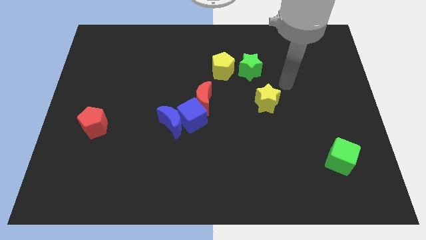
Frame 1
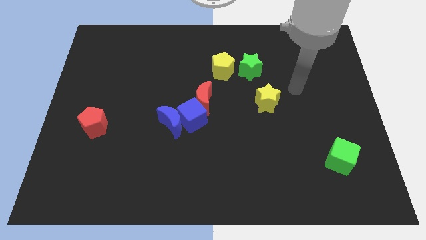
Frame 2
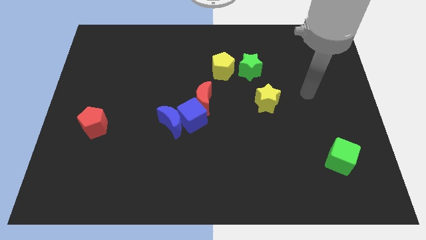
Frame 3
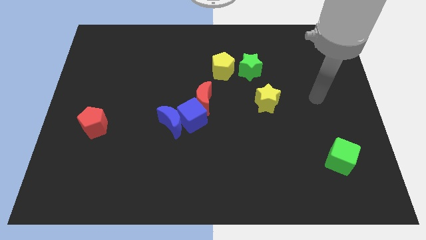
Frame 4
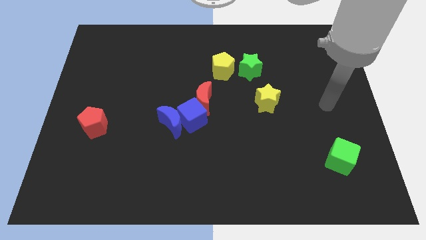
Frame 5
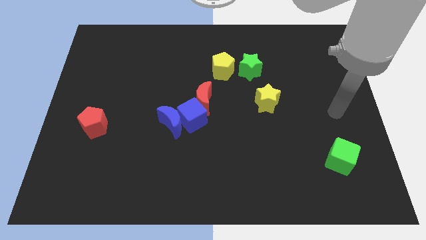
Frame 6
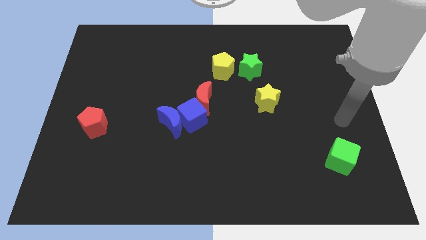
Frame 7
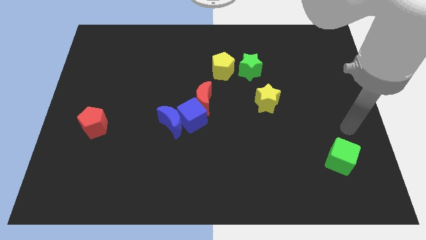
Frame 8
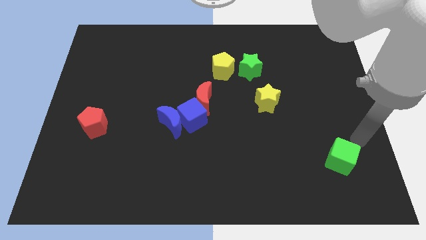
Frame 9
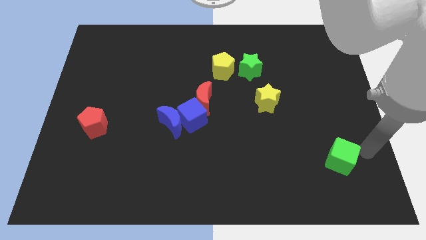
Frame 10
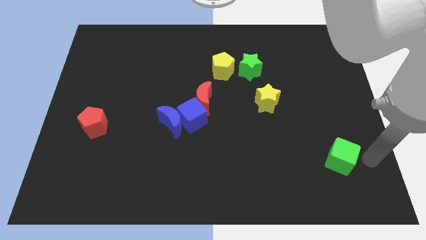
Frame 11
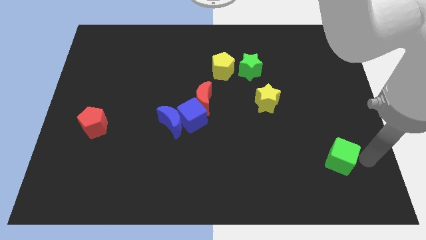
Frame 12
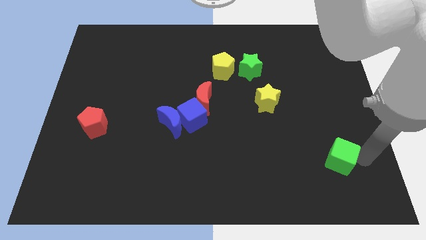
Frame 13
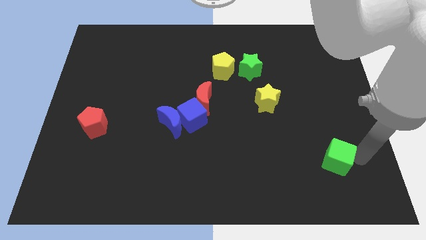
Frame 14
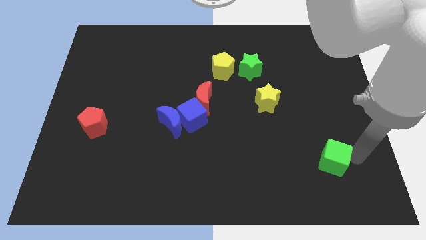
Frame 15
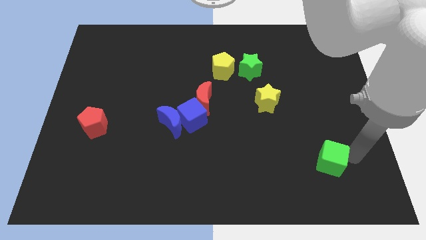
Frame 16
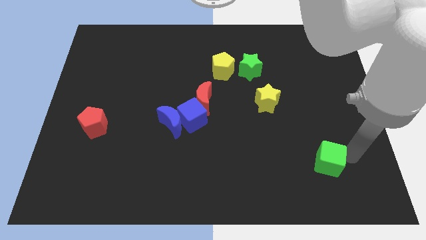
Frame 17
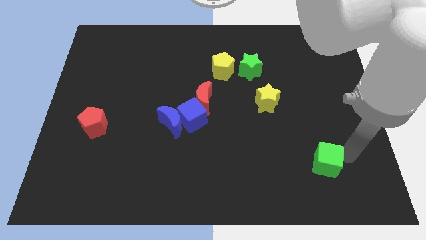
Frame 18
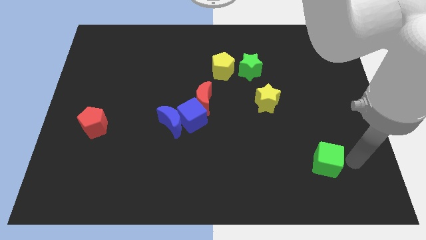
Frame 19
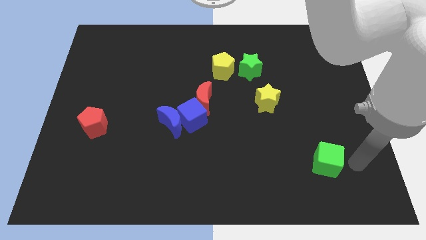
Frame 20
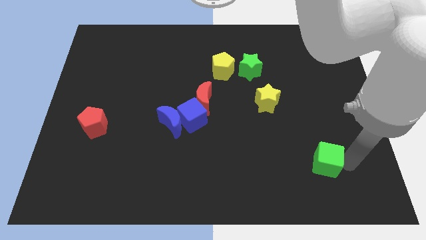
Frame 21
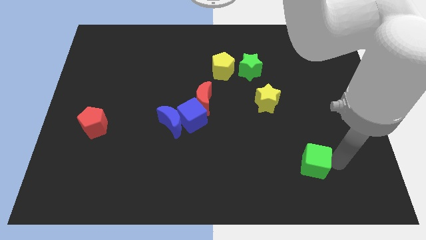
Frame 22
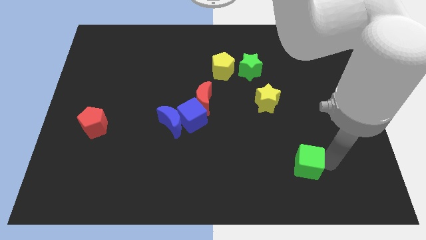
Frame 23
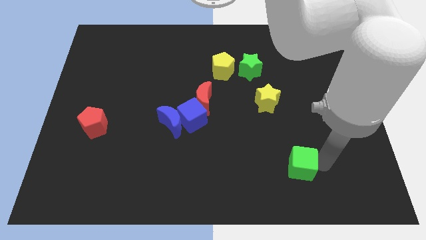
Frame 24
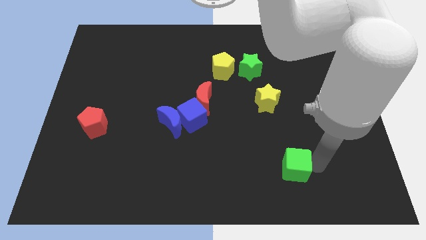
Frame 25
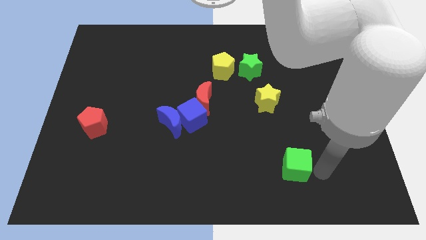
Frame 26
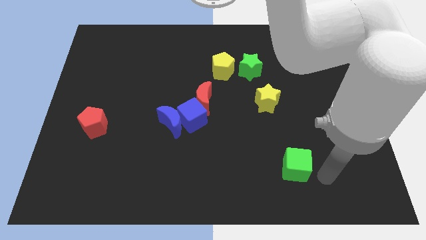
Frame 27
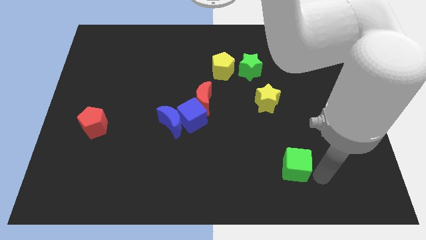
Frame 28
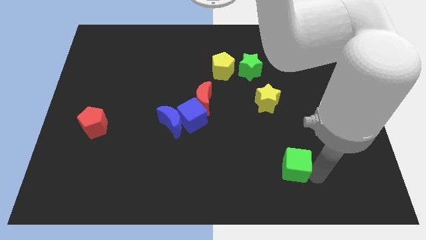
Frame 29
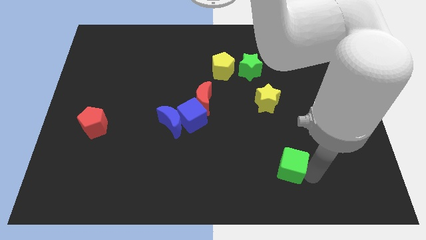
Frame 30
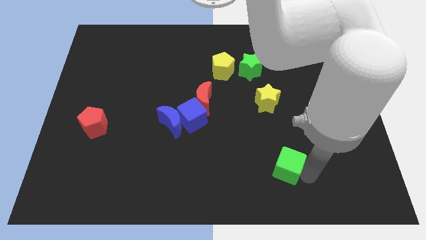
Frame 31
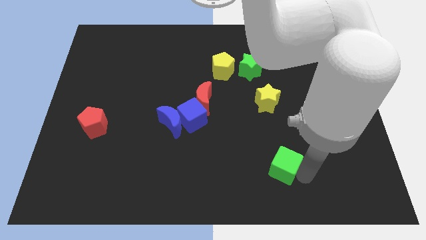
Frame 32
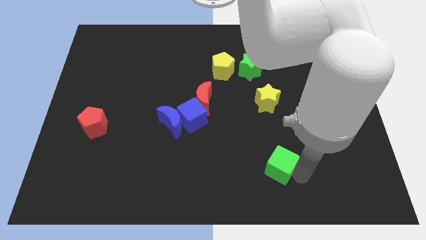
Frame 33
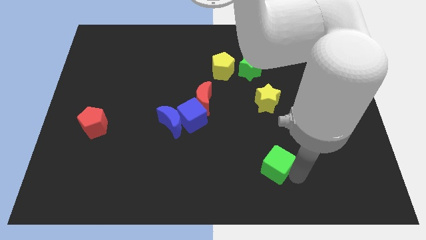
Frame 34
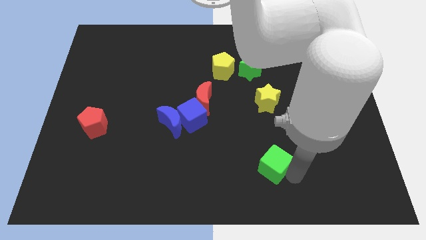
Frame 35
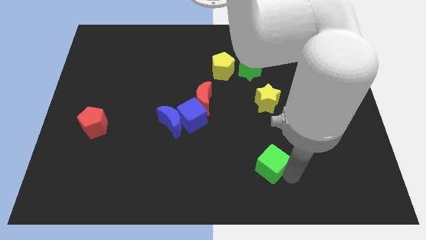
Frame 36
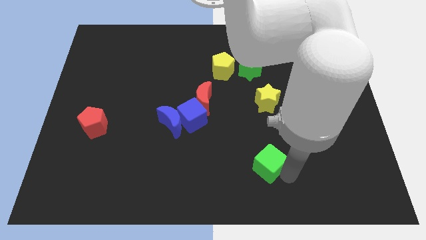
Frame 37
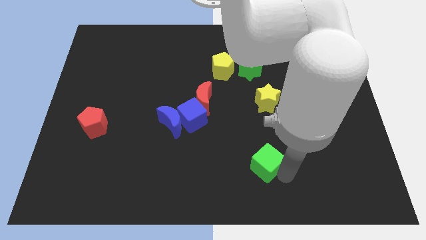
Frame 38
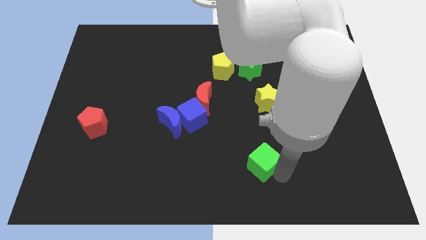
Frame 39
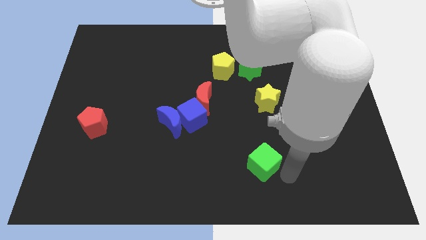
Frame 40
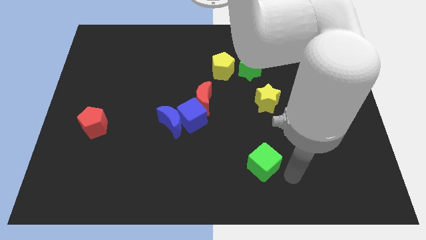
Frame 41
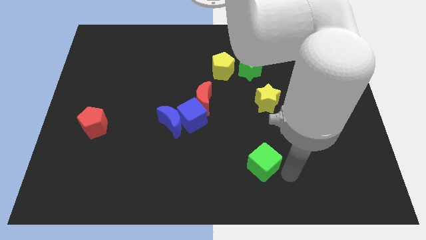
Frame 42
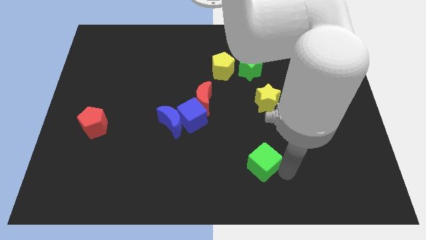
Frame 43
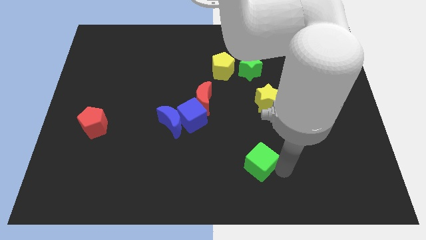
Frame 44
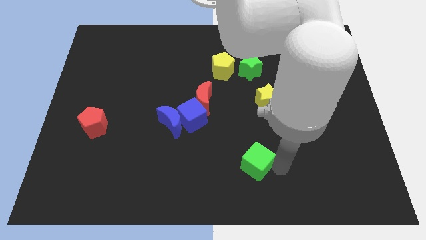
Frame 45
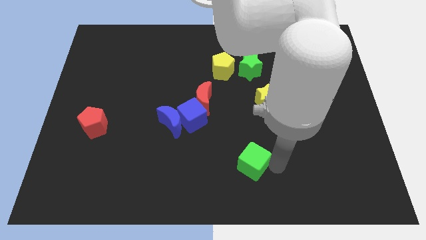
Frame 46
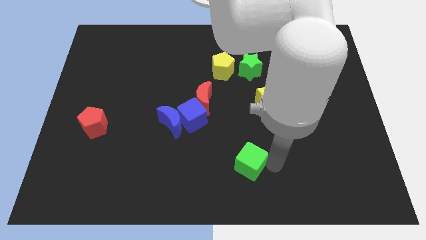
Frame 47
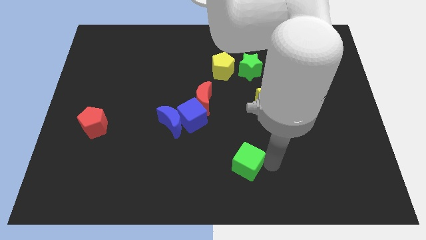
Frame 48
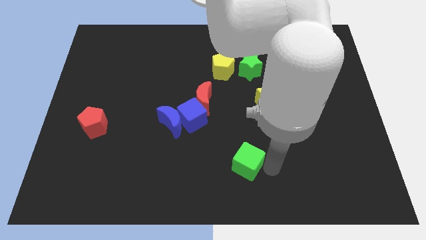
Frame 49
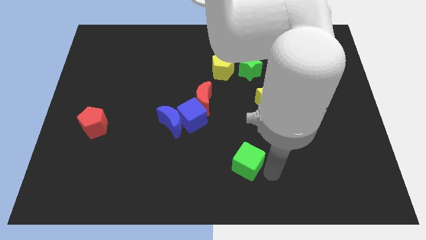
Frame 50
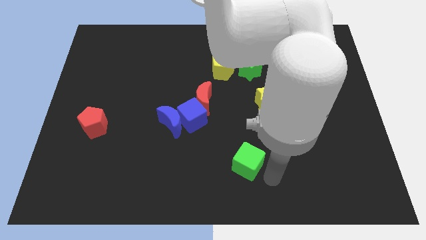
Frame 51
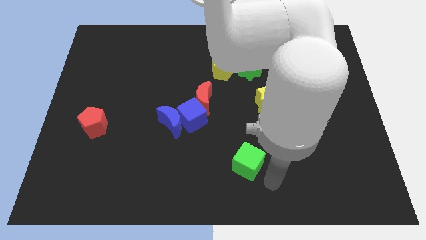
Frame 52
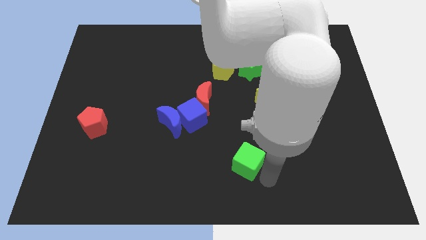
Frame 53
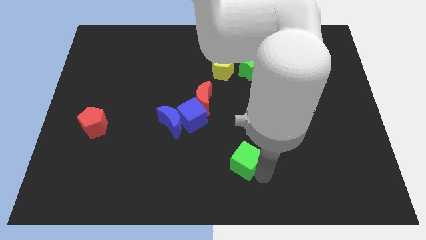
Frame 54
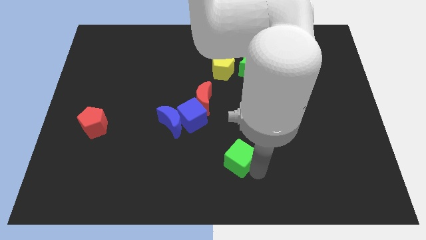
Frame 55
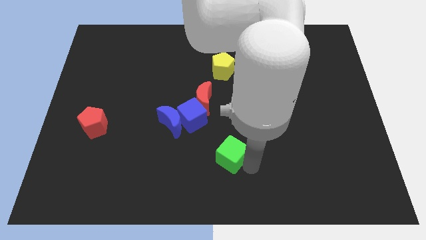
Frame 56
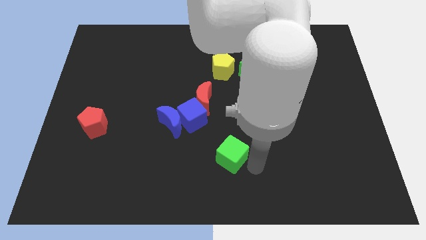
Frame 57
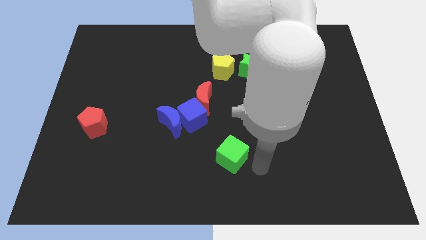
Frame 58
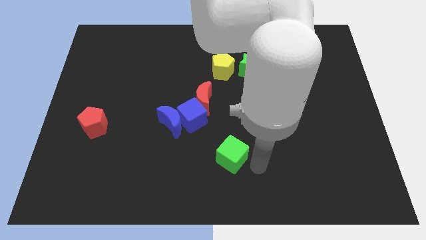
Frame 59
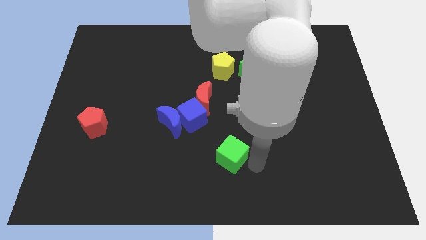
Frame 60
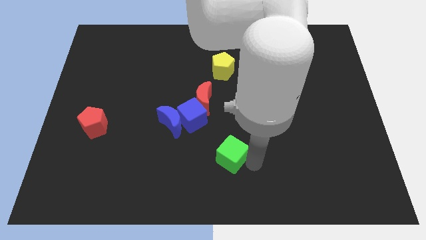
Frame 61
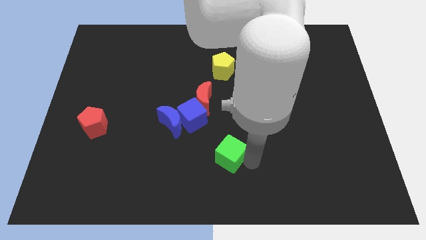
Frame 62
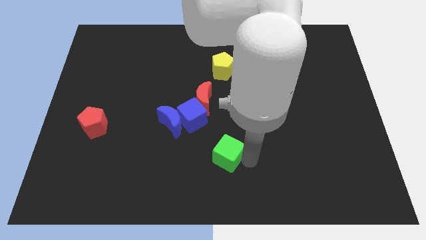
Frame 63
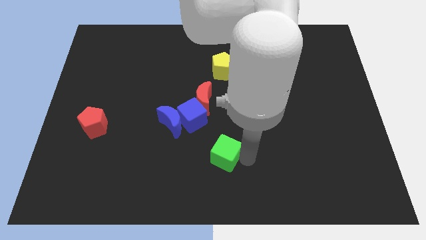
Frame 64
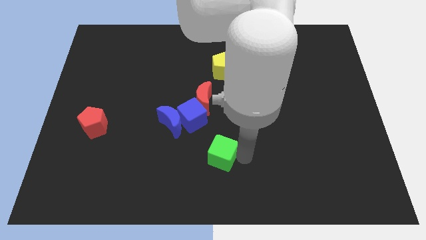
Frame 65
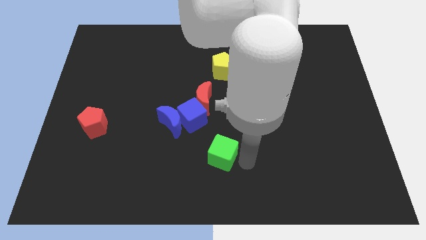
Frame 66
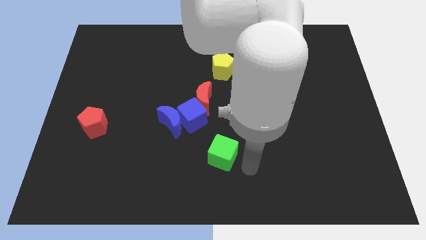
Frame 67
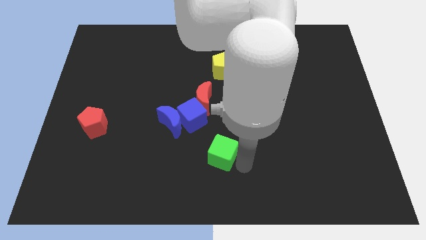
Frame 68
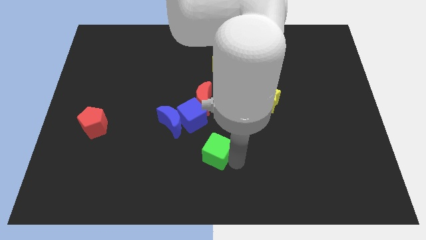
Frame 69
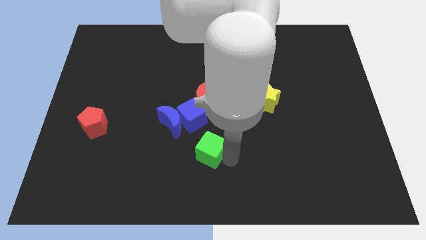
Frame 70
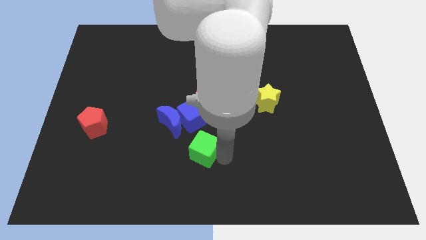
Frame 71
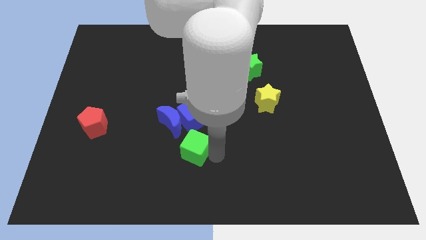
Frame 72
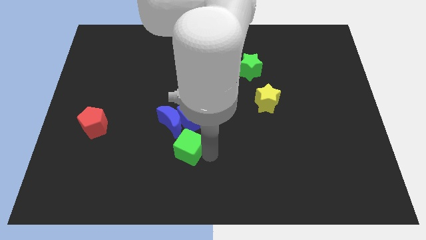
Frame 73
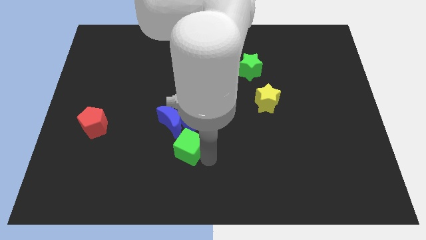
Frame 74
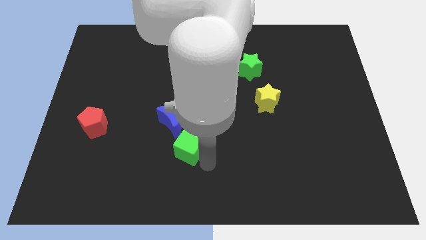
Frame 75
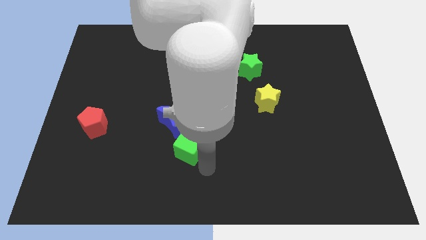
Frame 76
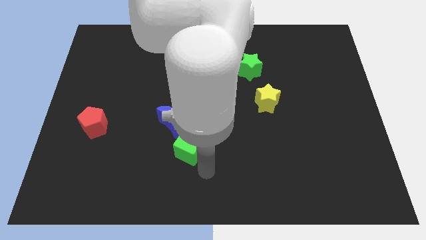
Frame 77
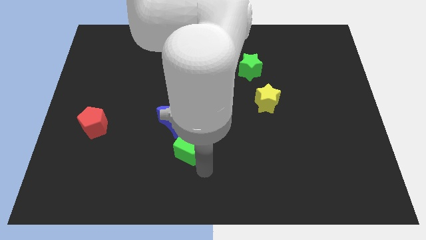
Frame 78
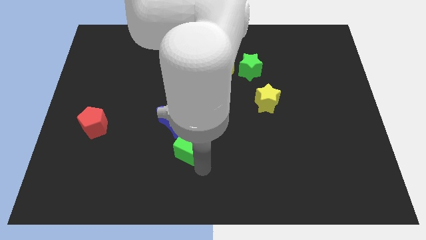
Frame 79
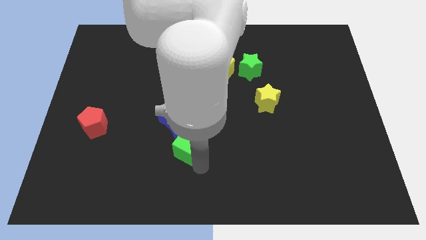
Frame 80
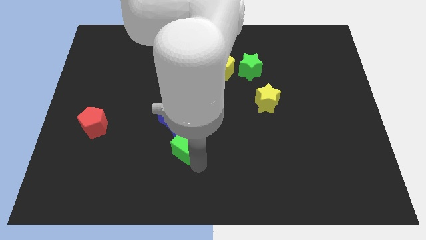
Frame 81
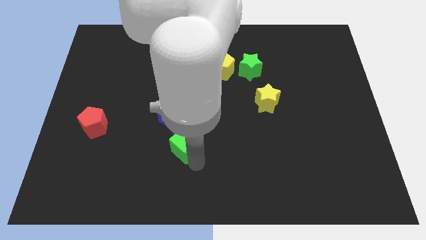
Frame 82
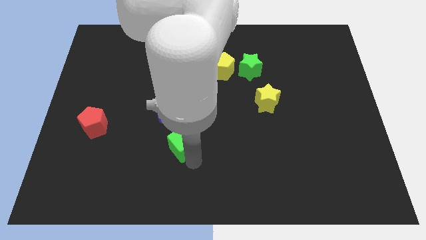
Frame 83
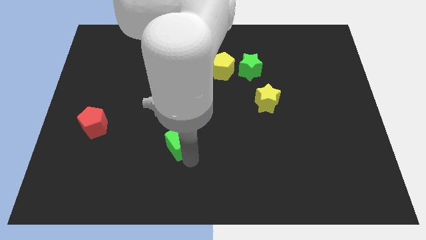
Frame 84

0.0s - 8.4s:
put the green cube close to the blue moon
